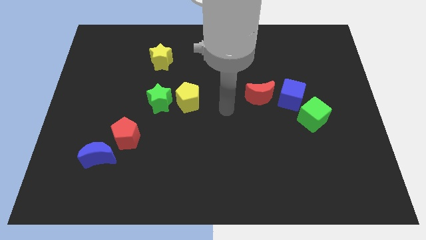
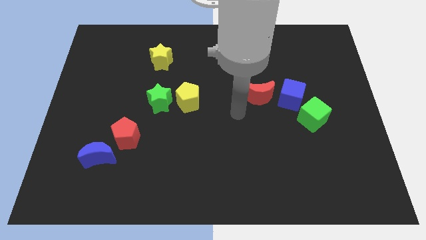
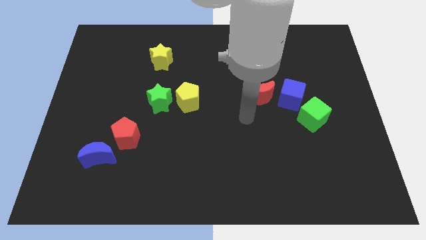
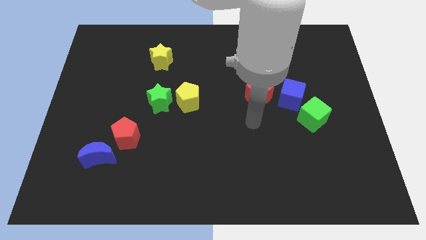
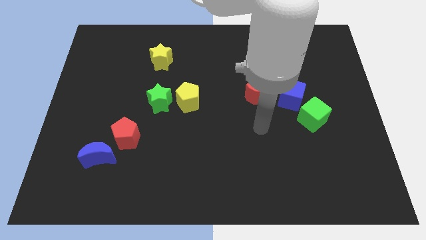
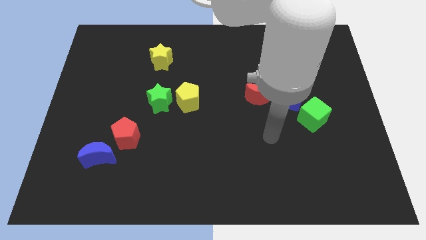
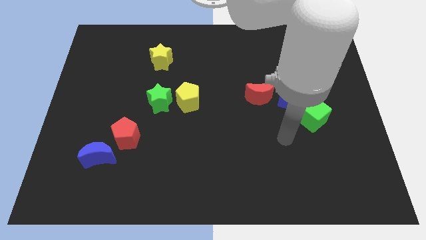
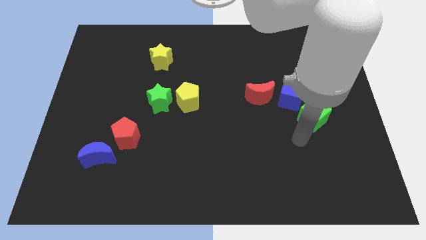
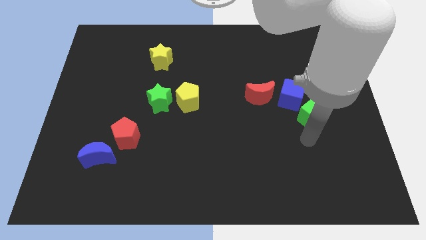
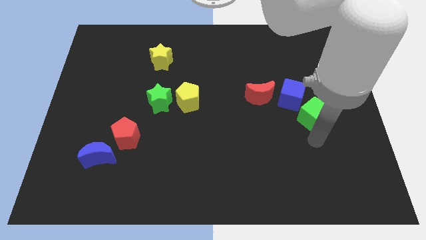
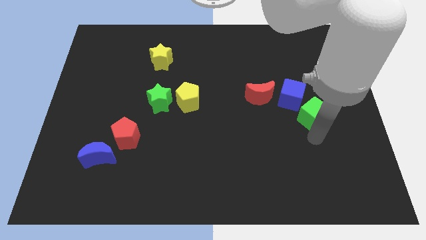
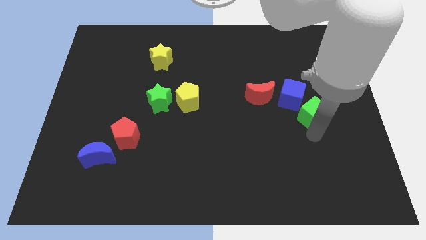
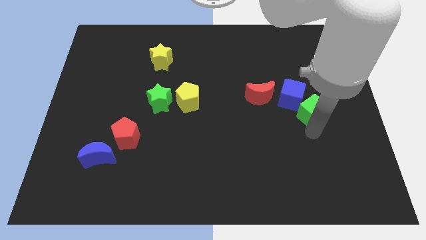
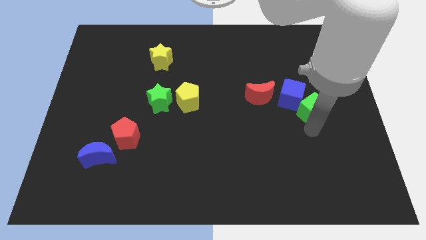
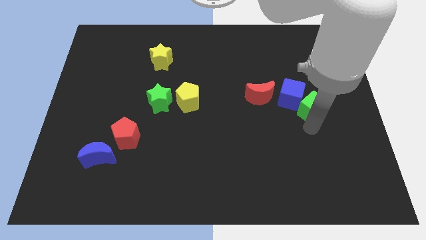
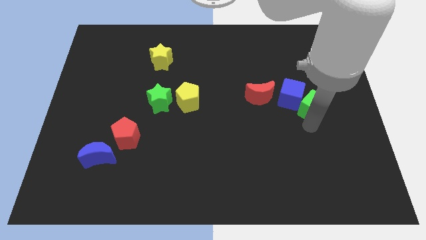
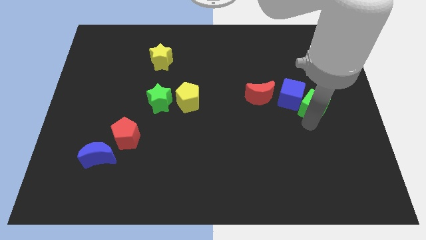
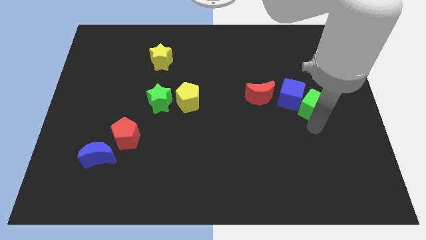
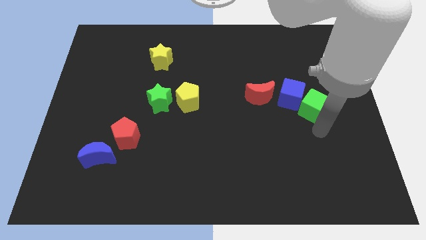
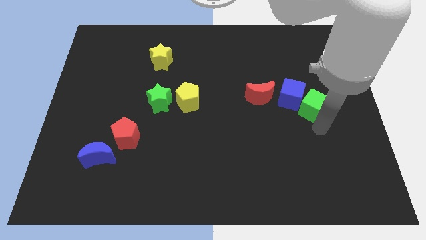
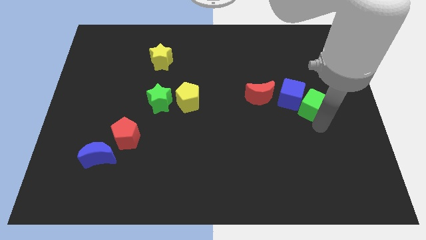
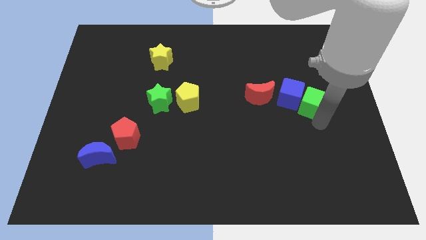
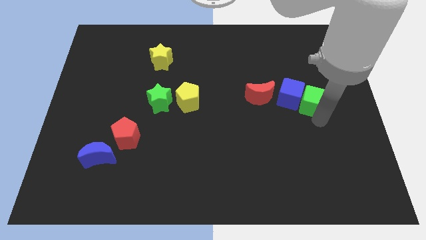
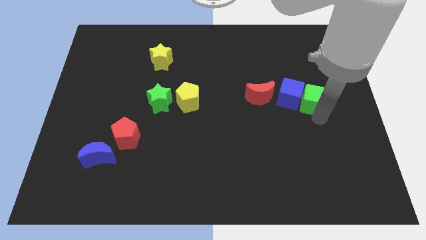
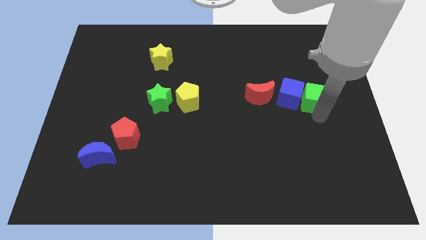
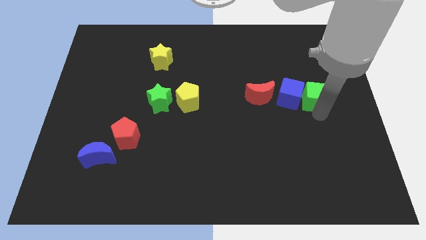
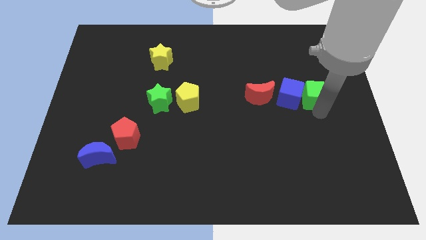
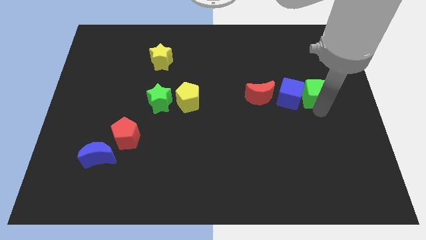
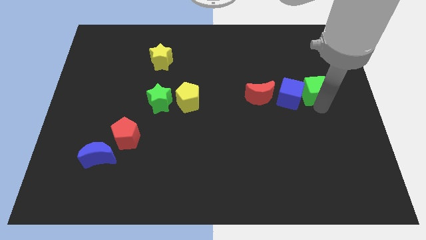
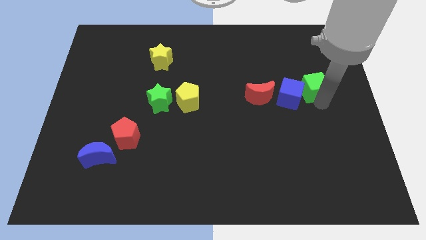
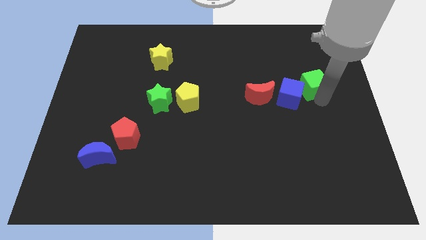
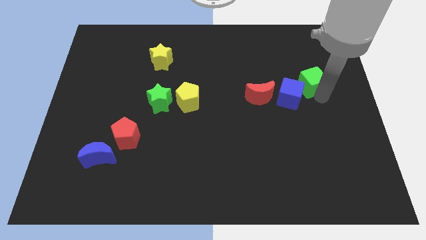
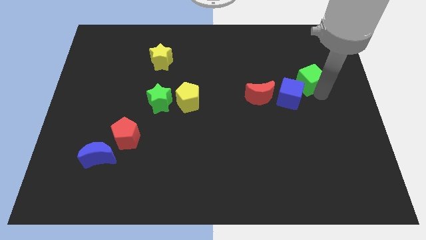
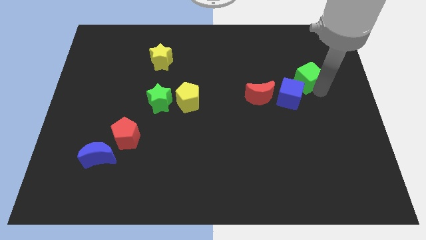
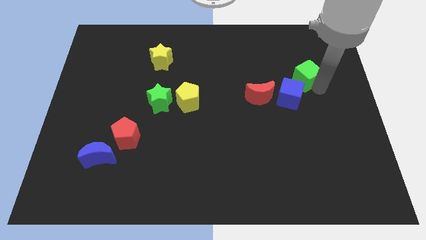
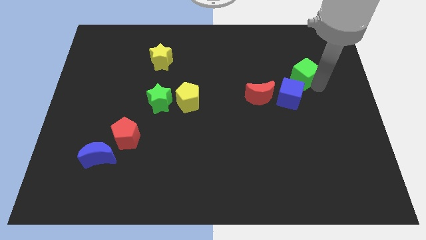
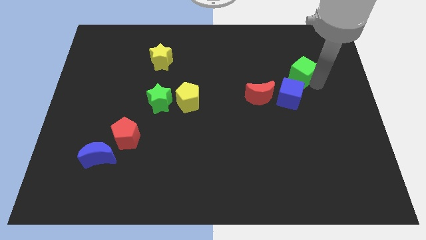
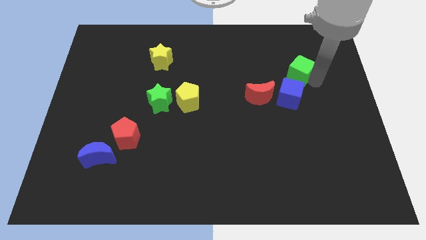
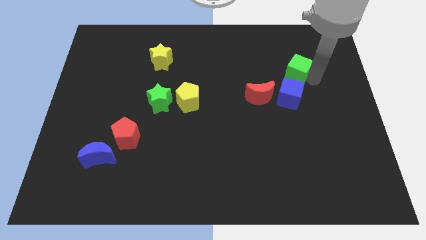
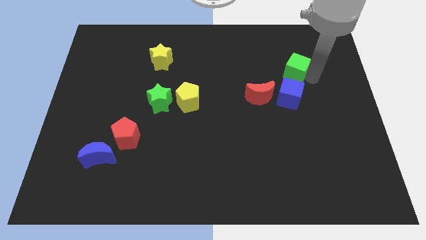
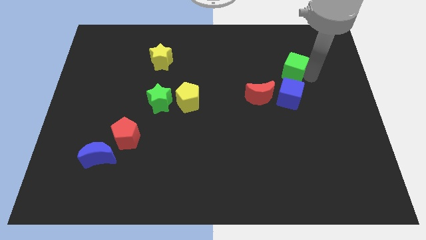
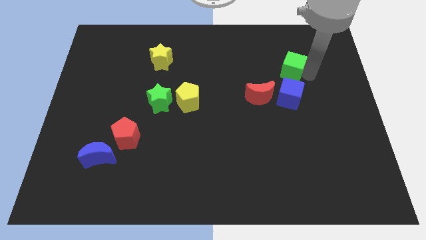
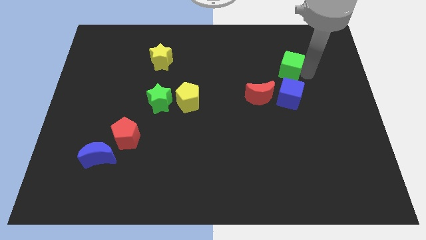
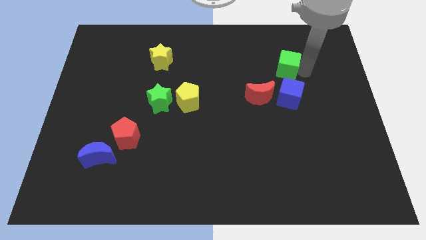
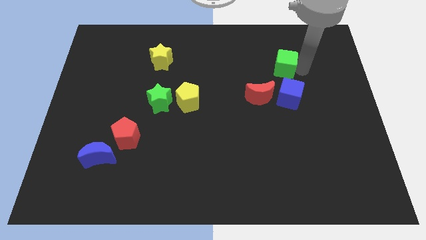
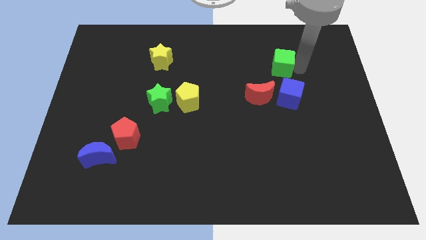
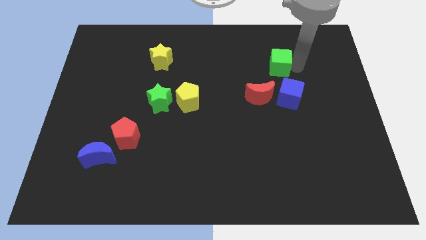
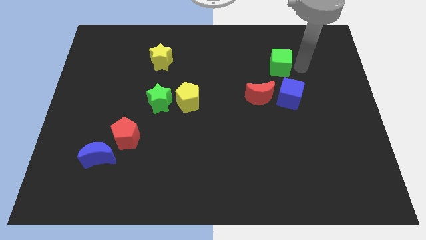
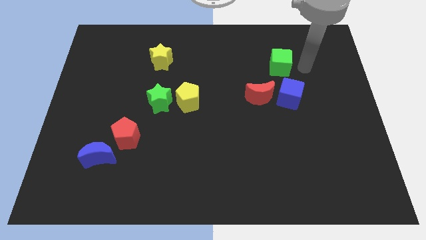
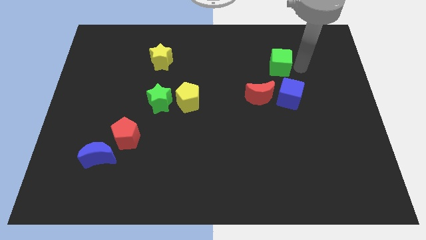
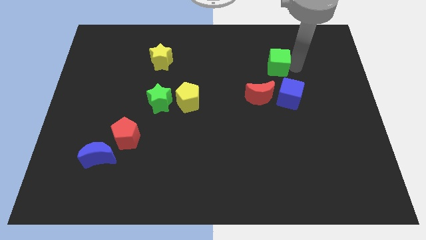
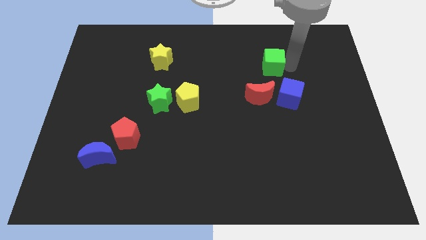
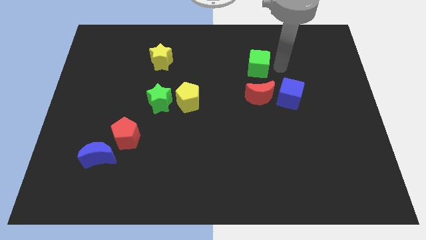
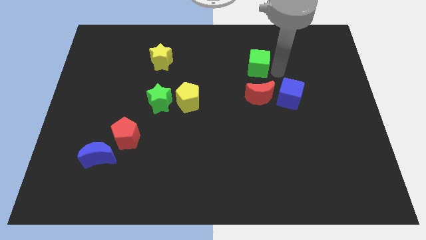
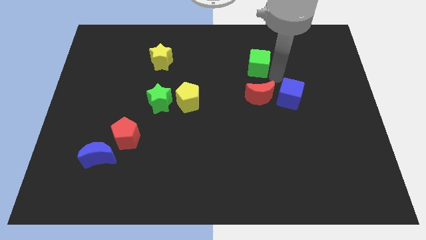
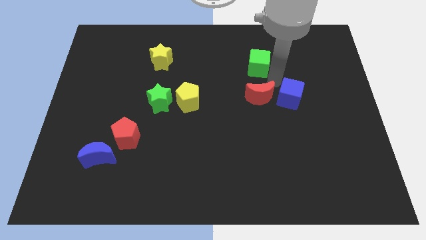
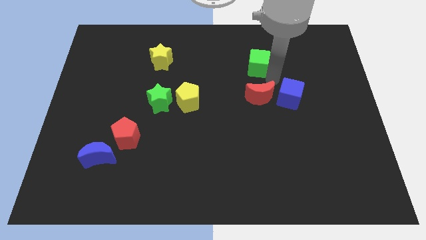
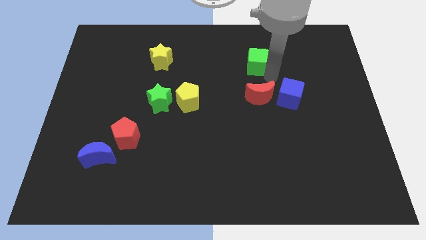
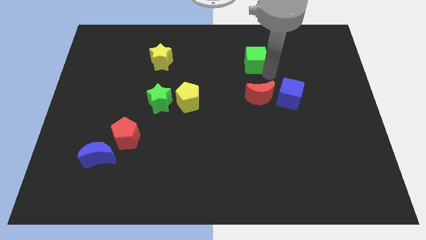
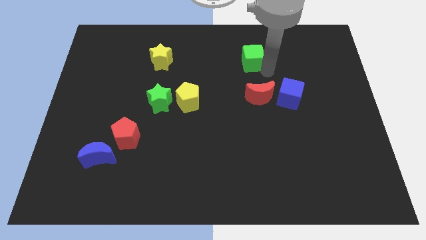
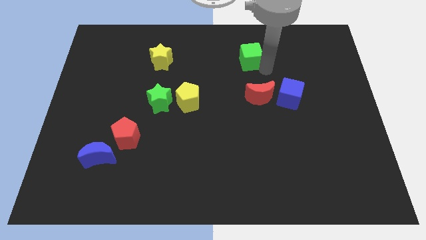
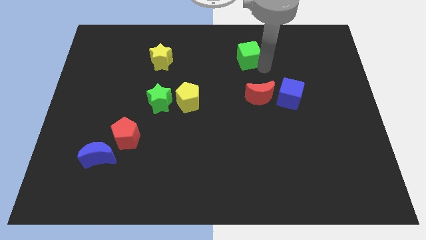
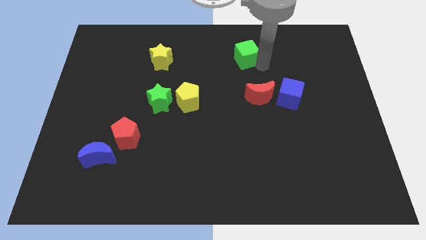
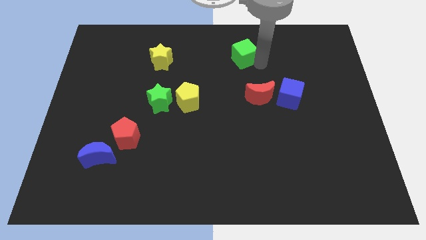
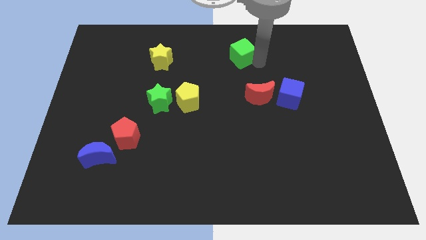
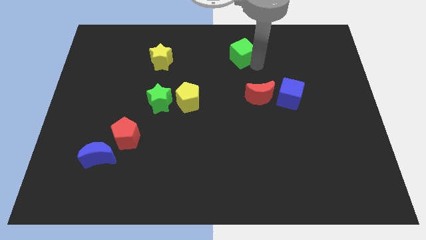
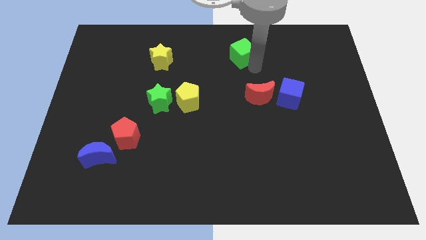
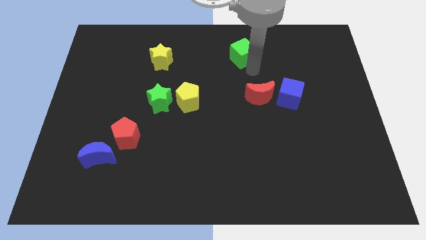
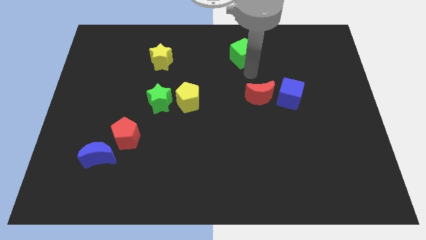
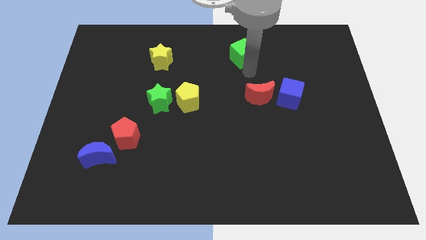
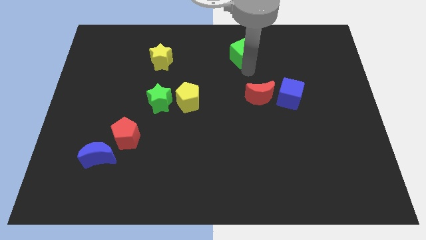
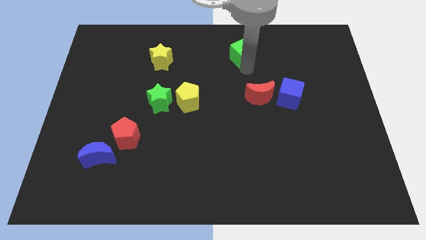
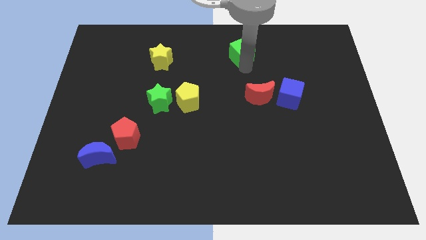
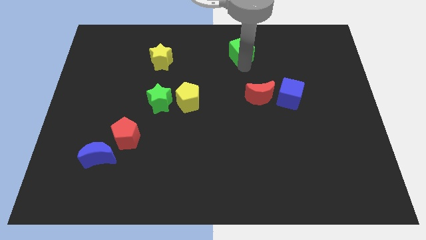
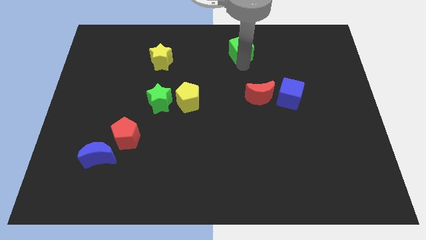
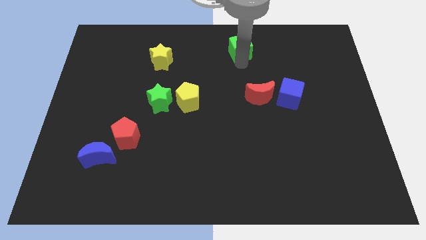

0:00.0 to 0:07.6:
slide the green cube to the towards your base
